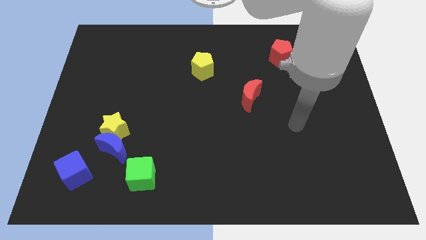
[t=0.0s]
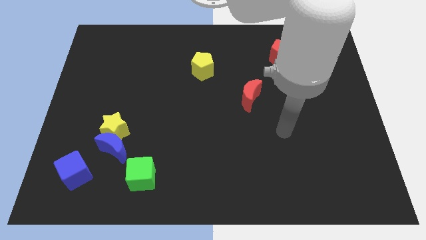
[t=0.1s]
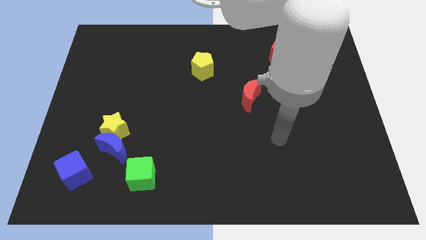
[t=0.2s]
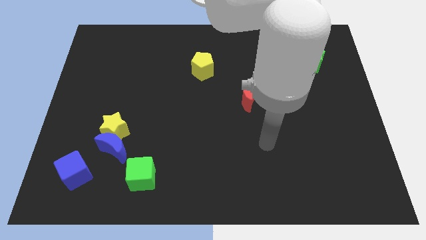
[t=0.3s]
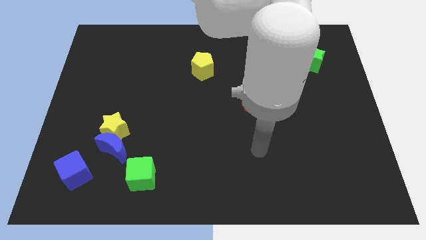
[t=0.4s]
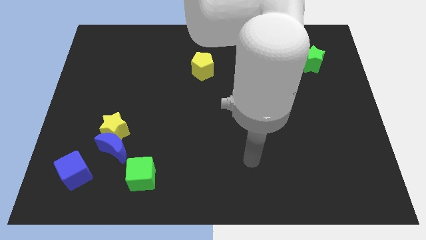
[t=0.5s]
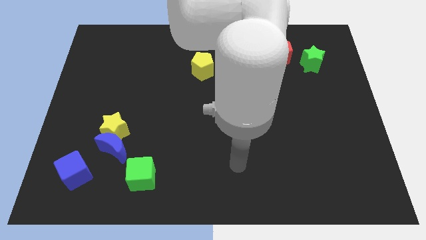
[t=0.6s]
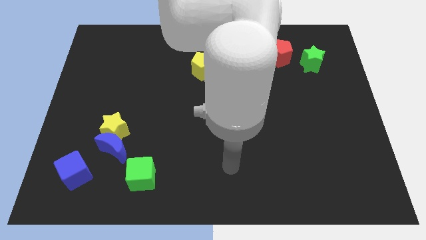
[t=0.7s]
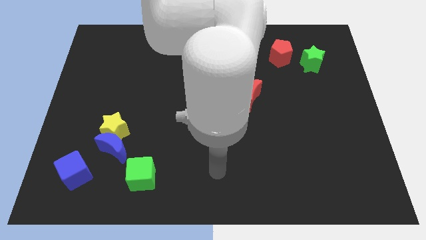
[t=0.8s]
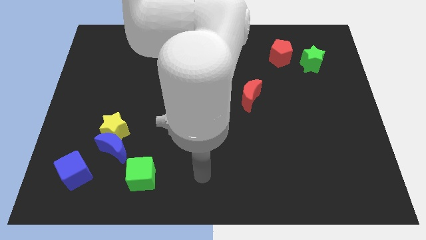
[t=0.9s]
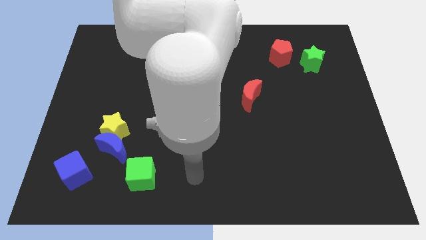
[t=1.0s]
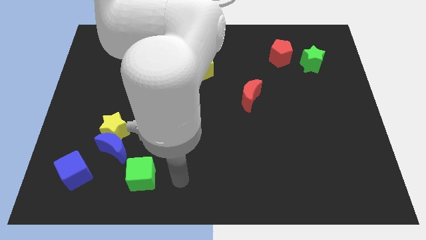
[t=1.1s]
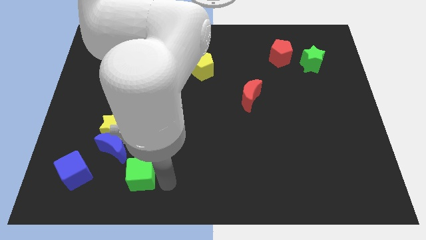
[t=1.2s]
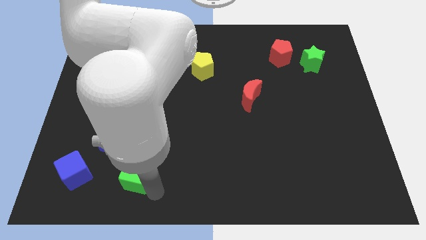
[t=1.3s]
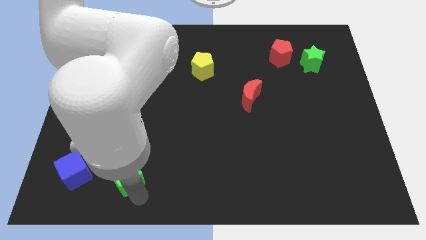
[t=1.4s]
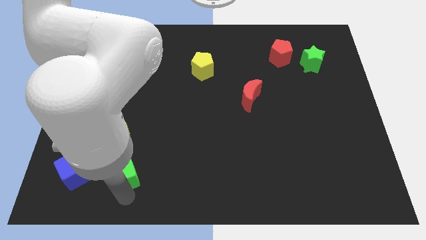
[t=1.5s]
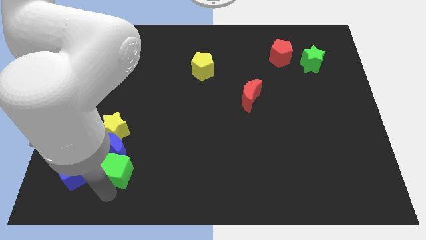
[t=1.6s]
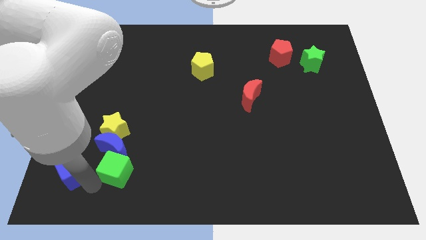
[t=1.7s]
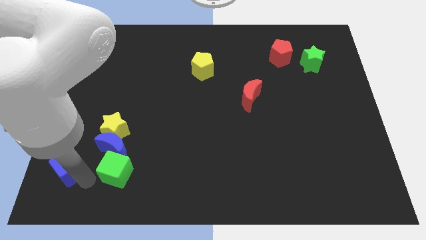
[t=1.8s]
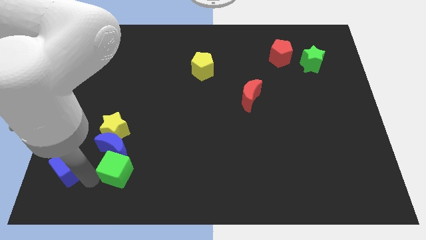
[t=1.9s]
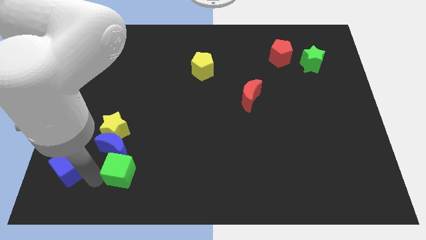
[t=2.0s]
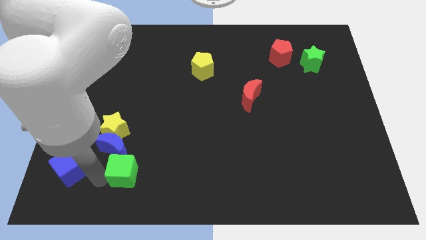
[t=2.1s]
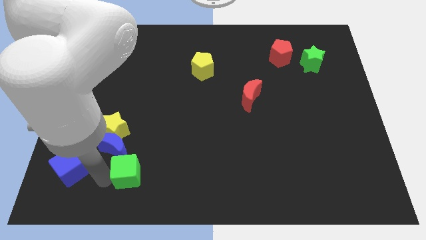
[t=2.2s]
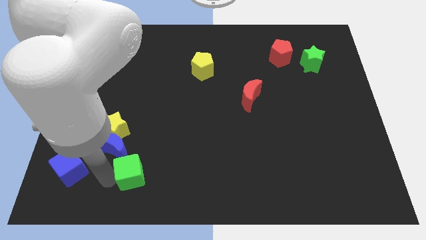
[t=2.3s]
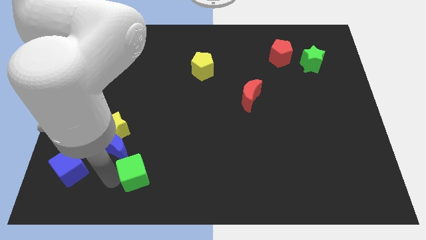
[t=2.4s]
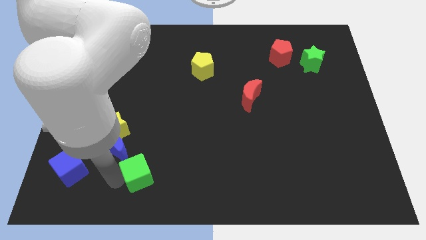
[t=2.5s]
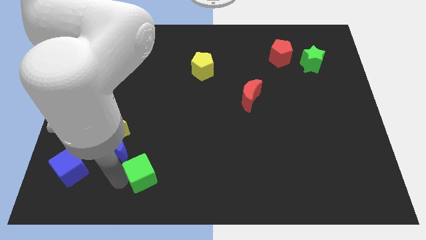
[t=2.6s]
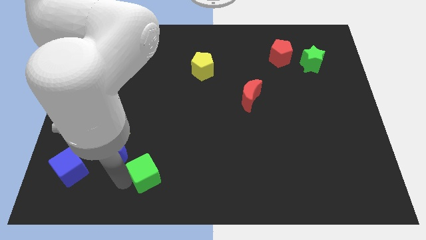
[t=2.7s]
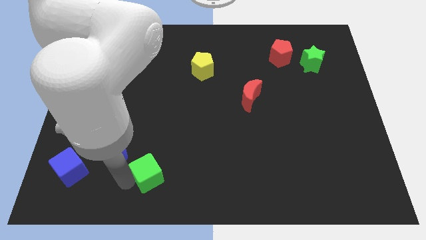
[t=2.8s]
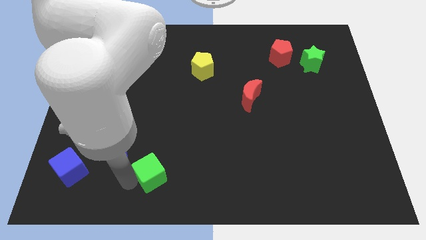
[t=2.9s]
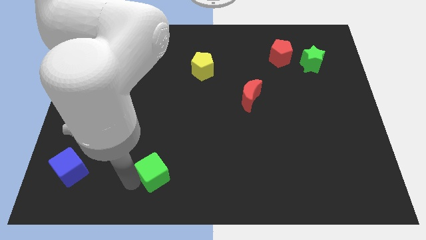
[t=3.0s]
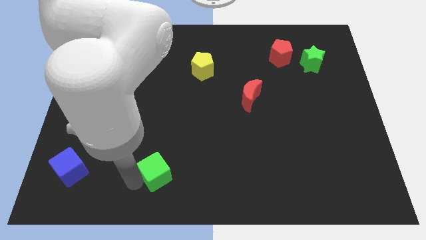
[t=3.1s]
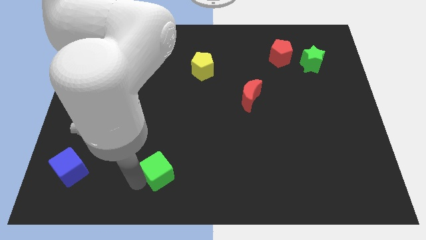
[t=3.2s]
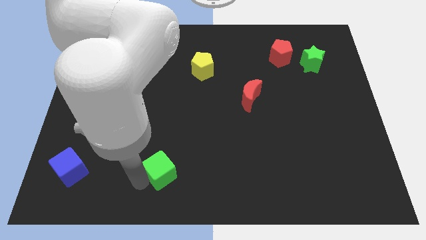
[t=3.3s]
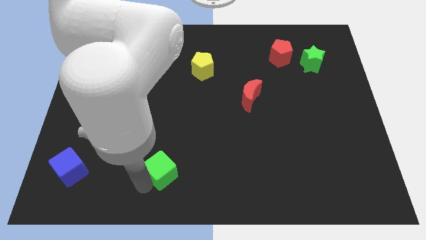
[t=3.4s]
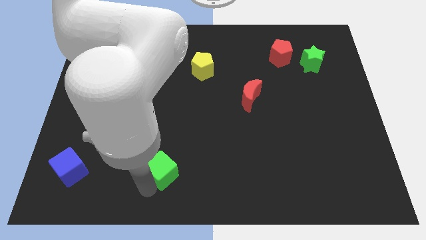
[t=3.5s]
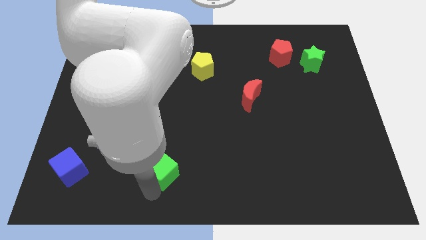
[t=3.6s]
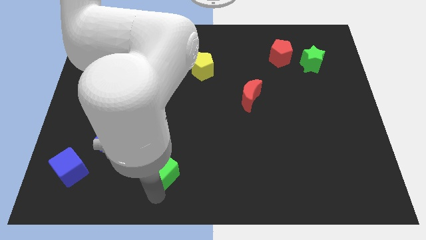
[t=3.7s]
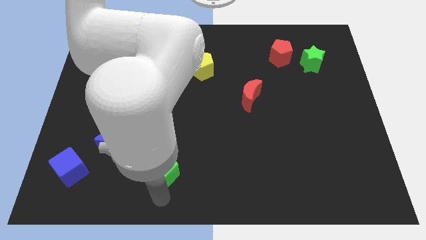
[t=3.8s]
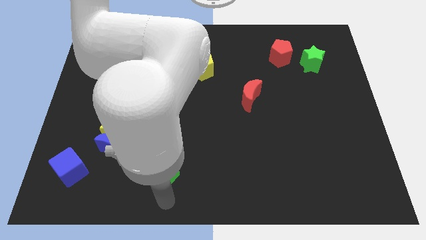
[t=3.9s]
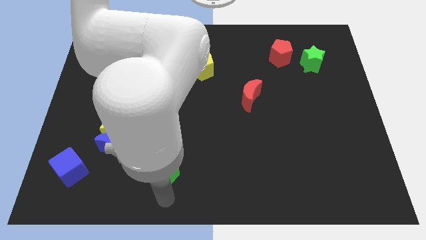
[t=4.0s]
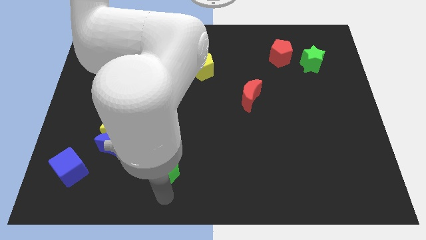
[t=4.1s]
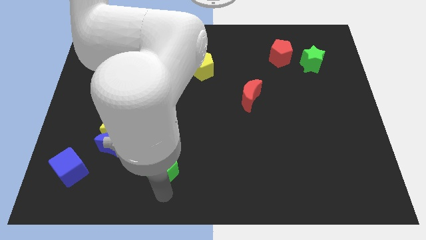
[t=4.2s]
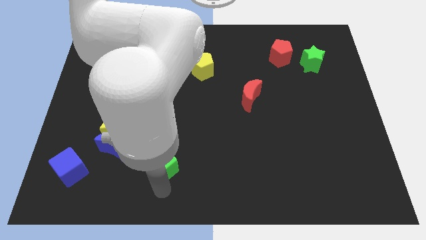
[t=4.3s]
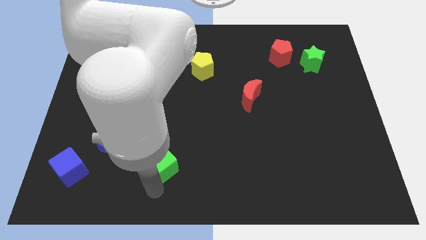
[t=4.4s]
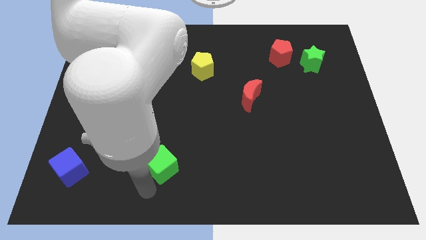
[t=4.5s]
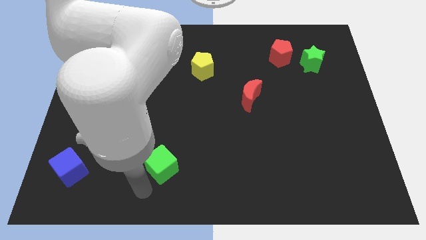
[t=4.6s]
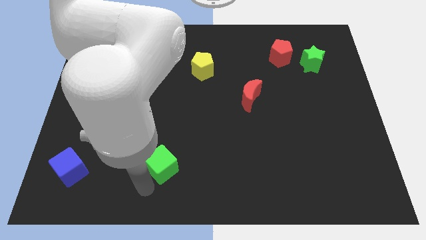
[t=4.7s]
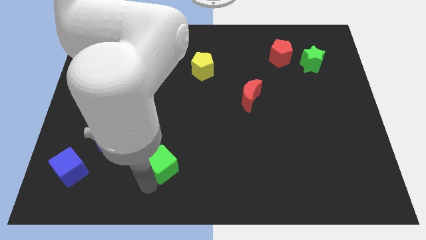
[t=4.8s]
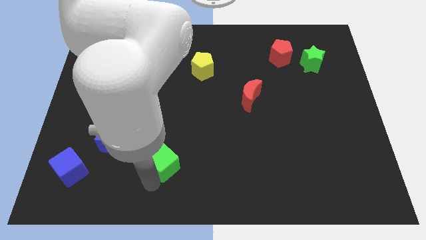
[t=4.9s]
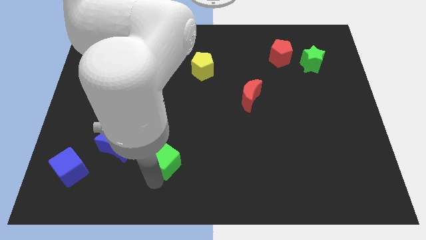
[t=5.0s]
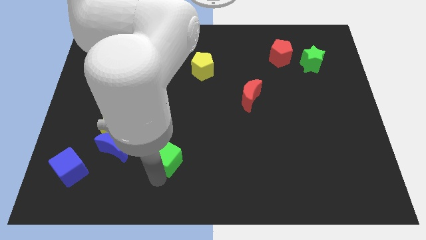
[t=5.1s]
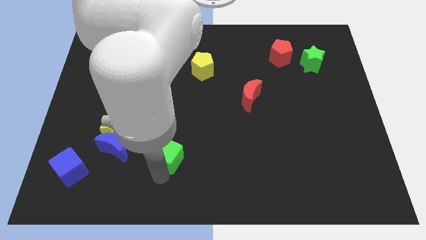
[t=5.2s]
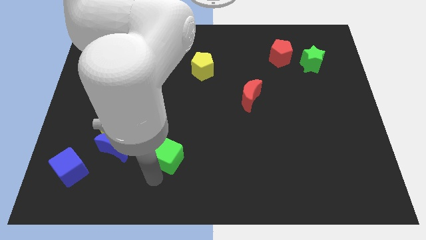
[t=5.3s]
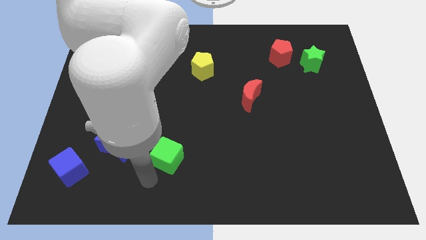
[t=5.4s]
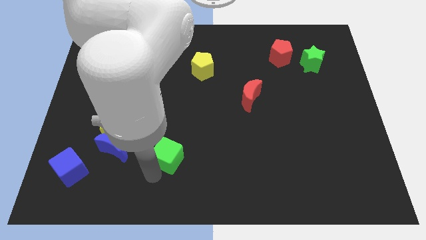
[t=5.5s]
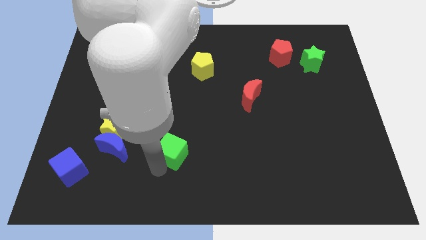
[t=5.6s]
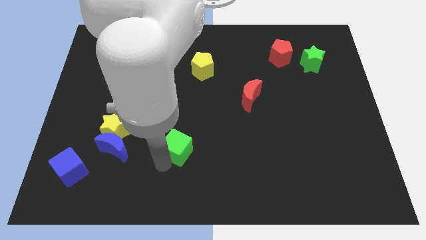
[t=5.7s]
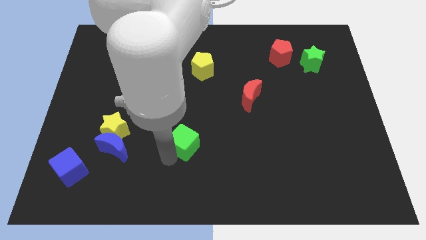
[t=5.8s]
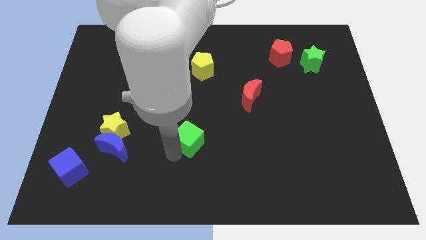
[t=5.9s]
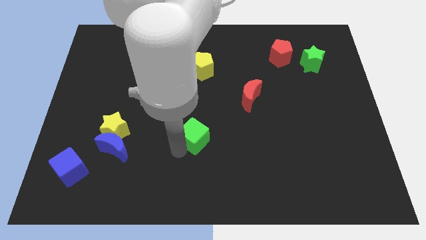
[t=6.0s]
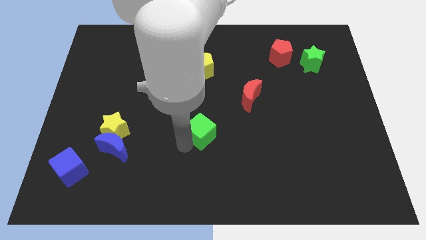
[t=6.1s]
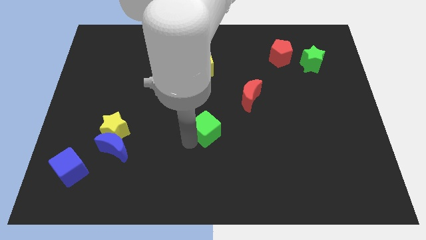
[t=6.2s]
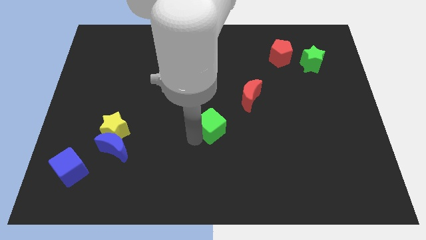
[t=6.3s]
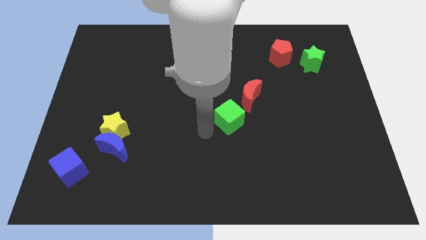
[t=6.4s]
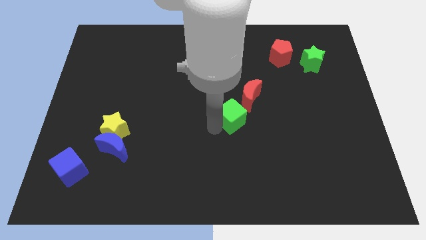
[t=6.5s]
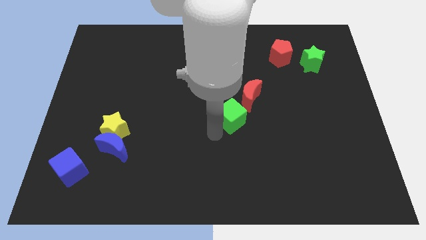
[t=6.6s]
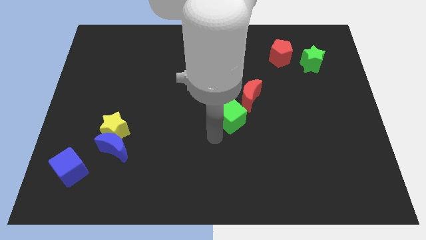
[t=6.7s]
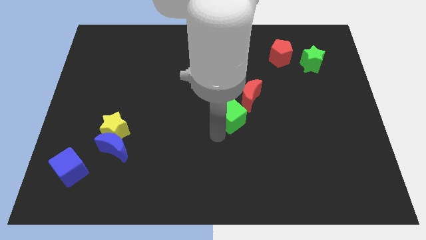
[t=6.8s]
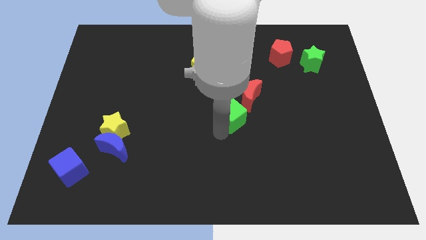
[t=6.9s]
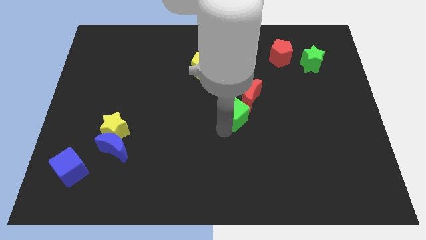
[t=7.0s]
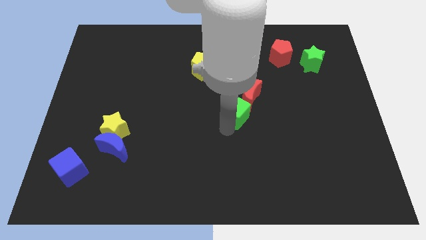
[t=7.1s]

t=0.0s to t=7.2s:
push the green cube towards the red moon

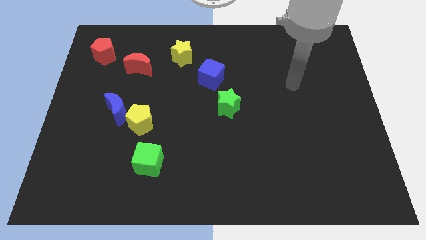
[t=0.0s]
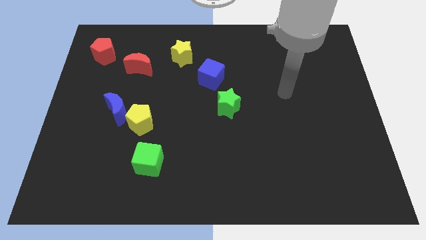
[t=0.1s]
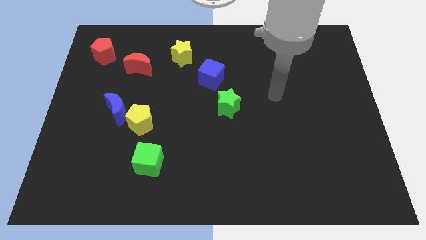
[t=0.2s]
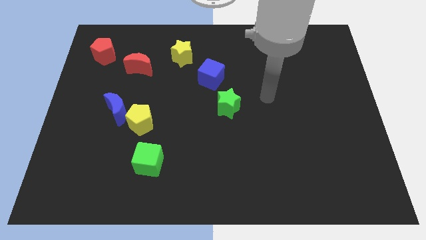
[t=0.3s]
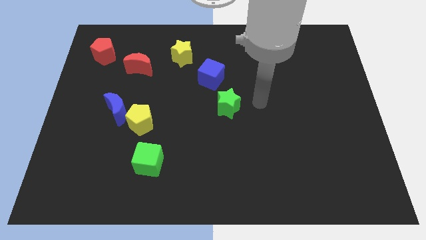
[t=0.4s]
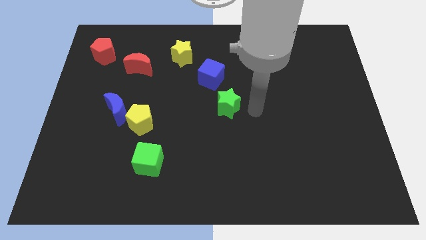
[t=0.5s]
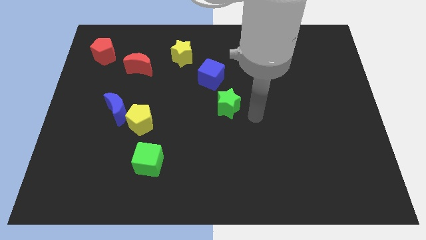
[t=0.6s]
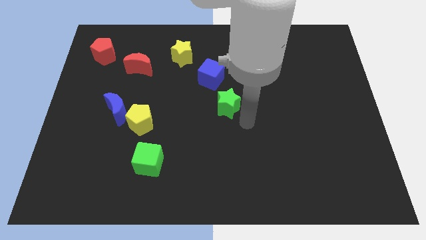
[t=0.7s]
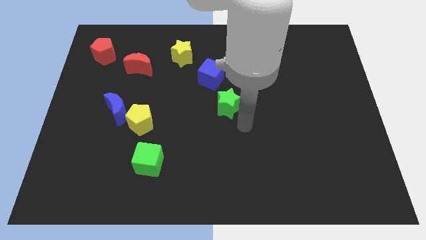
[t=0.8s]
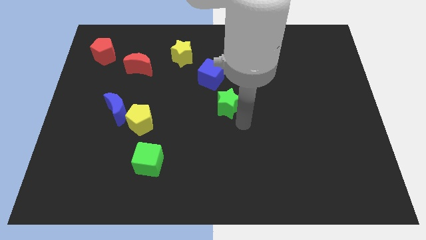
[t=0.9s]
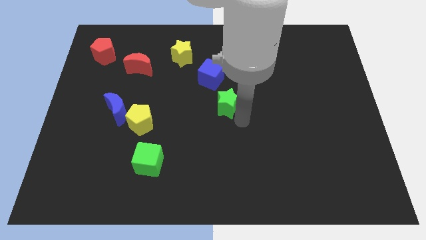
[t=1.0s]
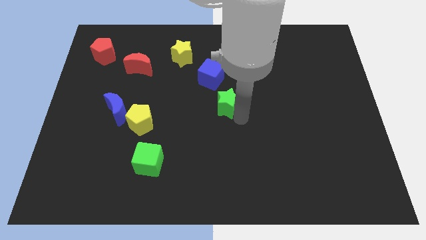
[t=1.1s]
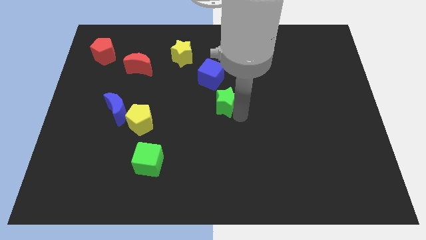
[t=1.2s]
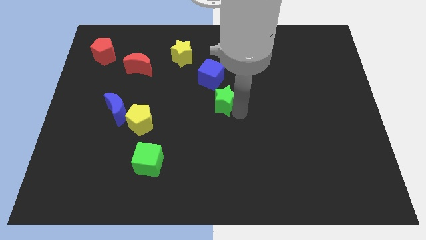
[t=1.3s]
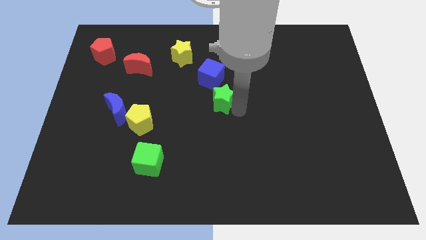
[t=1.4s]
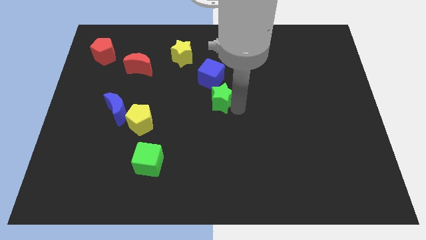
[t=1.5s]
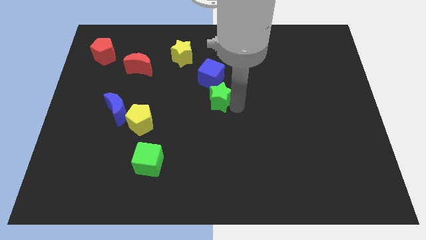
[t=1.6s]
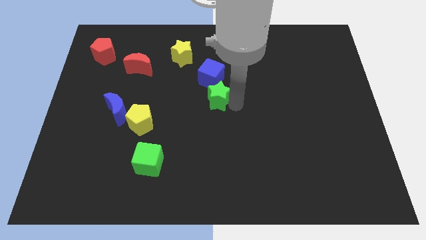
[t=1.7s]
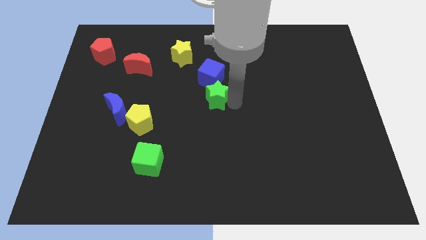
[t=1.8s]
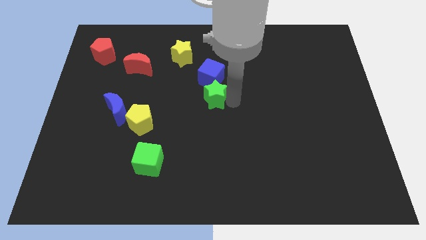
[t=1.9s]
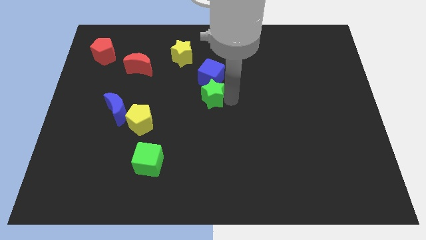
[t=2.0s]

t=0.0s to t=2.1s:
push the green star towards the blue cube
